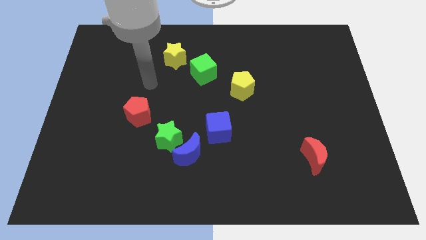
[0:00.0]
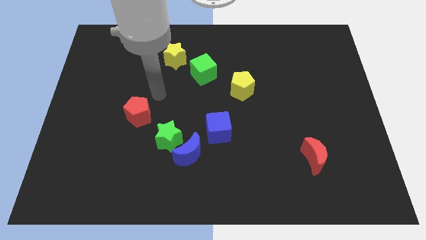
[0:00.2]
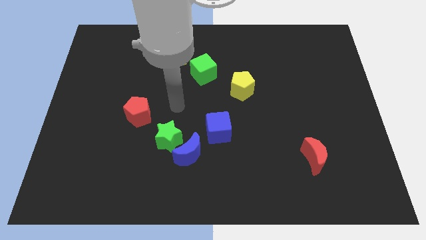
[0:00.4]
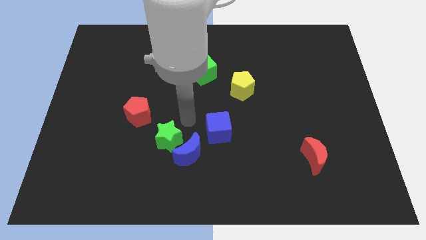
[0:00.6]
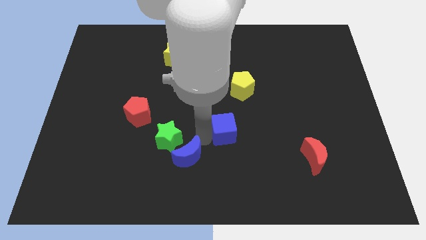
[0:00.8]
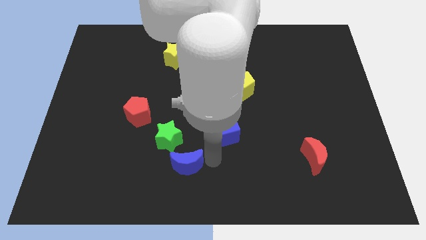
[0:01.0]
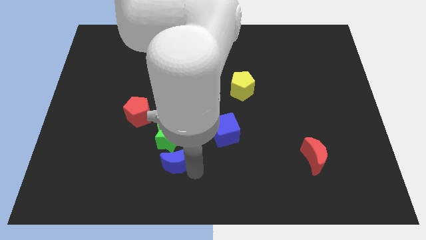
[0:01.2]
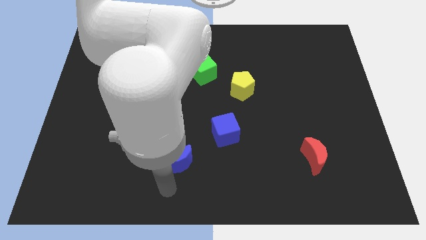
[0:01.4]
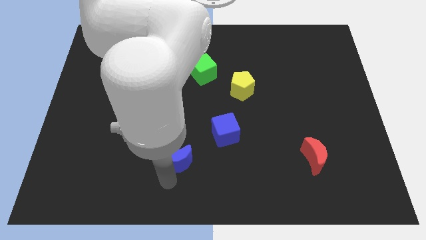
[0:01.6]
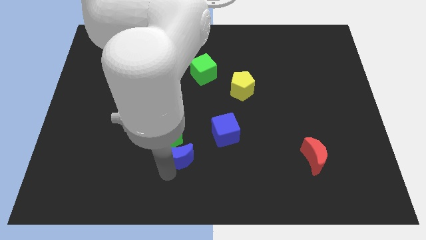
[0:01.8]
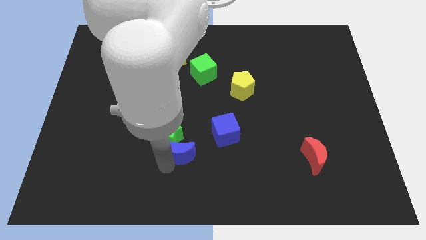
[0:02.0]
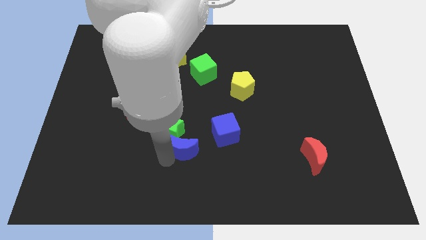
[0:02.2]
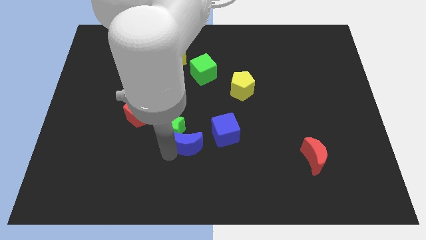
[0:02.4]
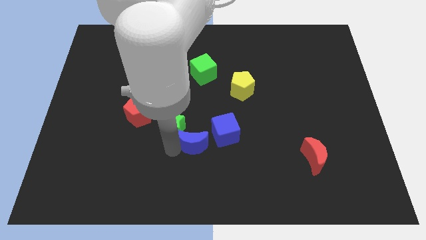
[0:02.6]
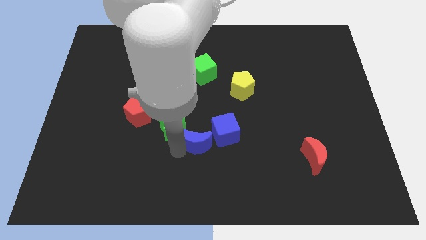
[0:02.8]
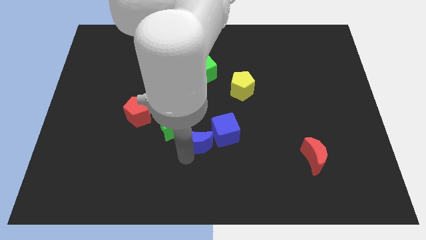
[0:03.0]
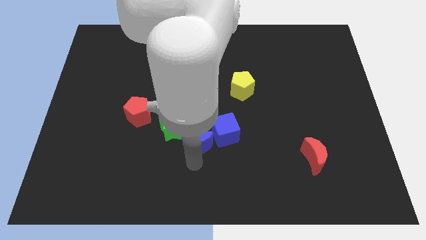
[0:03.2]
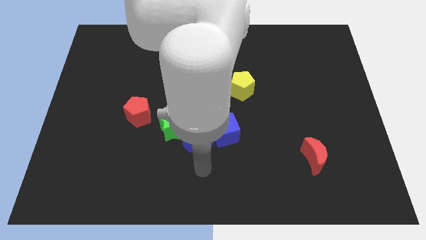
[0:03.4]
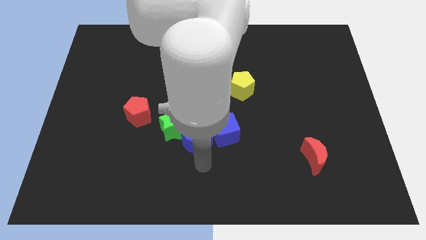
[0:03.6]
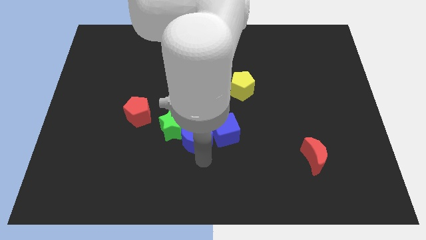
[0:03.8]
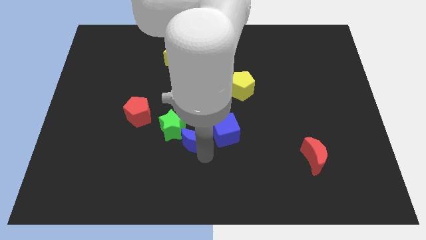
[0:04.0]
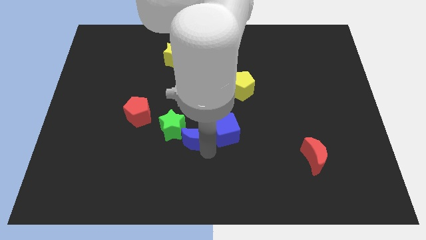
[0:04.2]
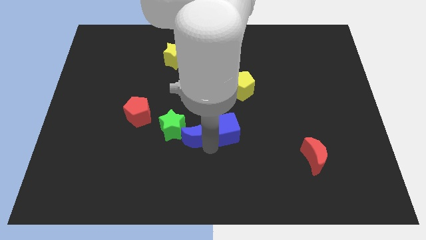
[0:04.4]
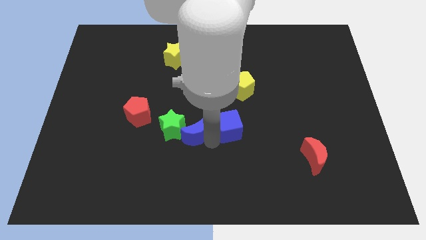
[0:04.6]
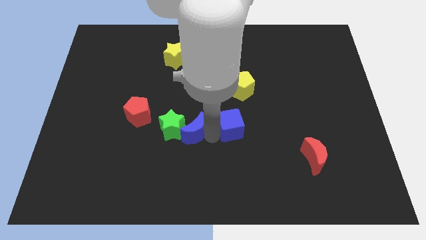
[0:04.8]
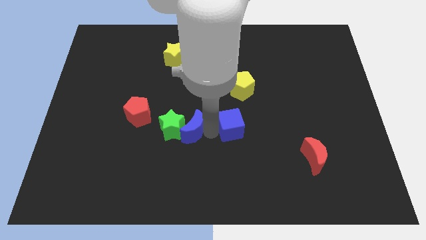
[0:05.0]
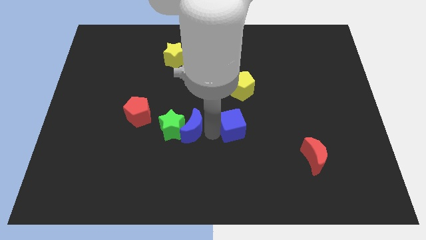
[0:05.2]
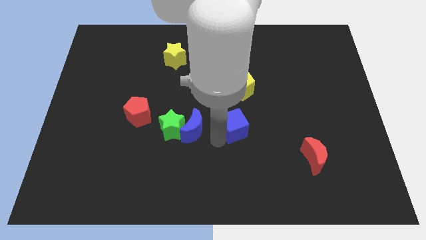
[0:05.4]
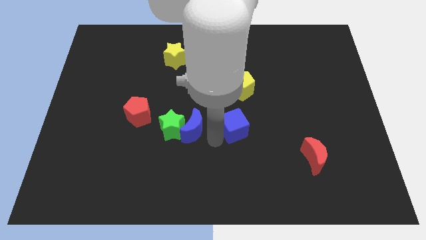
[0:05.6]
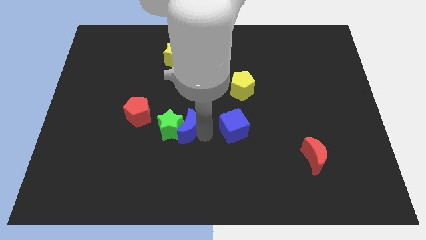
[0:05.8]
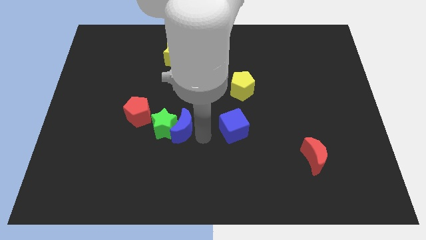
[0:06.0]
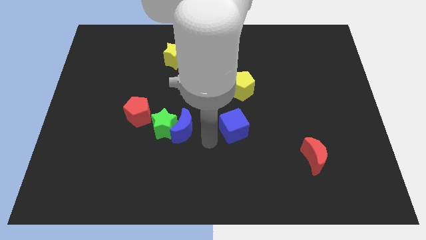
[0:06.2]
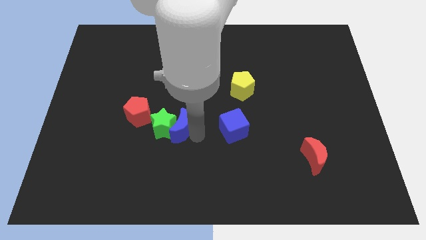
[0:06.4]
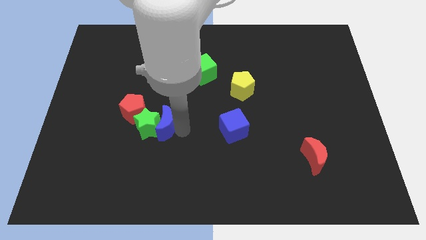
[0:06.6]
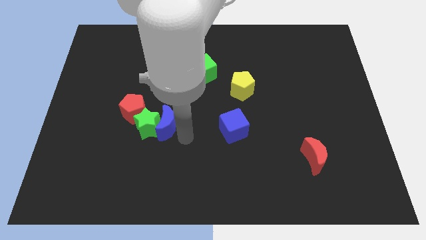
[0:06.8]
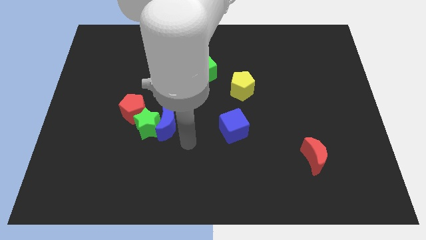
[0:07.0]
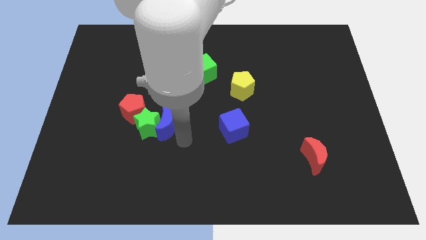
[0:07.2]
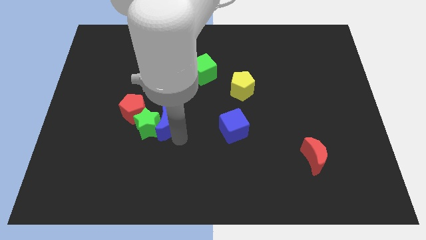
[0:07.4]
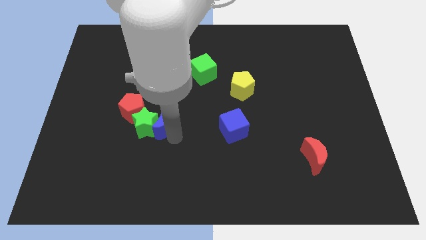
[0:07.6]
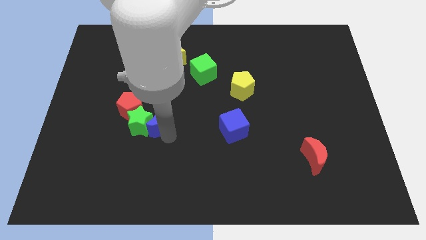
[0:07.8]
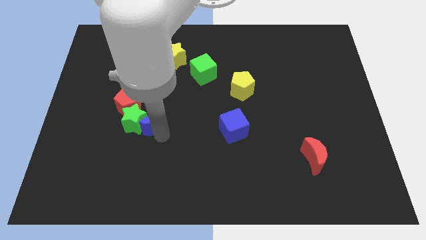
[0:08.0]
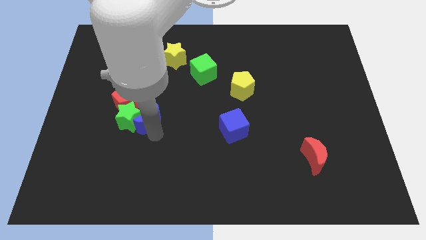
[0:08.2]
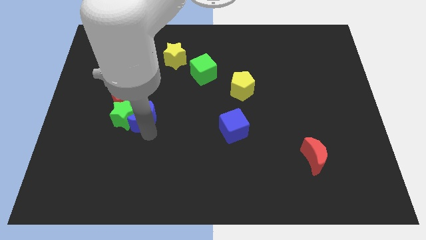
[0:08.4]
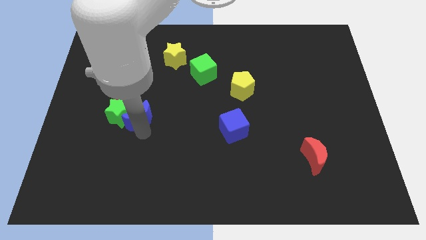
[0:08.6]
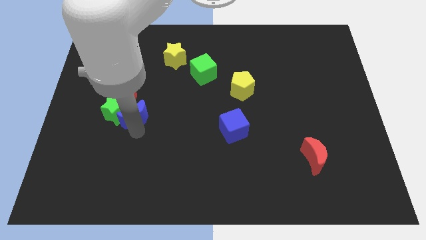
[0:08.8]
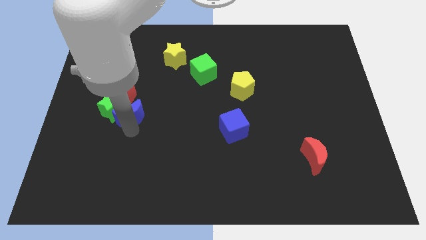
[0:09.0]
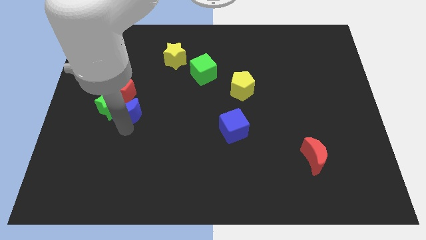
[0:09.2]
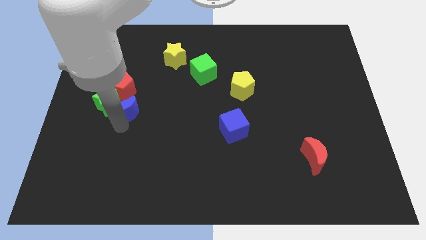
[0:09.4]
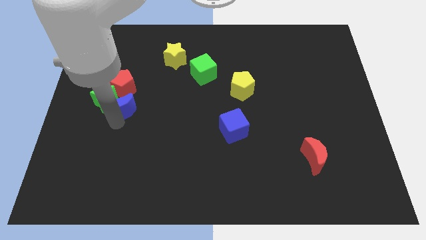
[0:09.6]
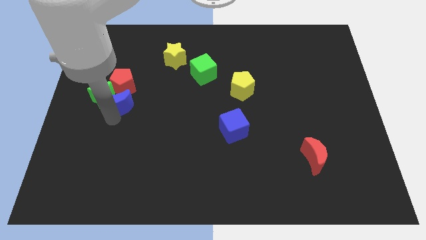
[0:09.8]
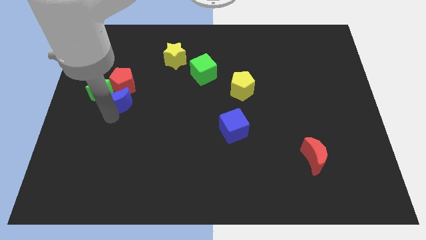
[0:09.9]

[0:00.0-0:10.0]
slide the blue moon close to the red pentagon

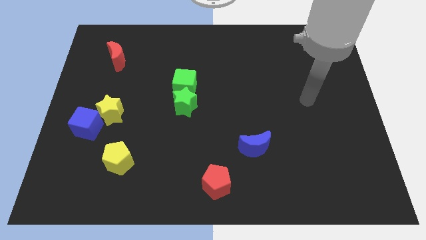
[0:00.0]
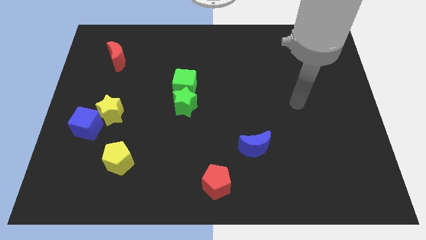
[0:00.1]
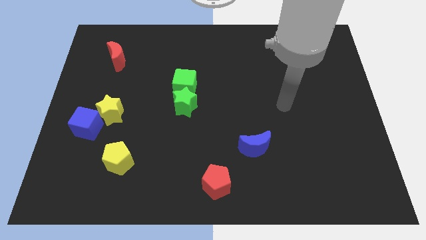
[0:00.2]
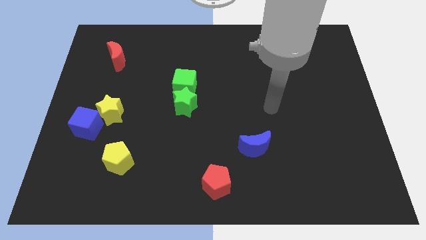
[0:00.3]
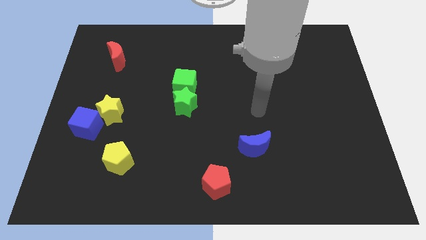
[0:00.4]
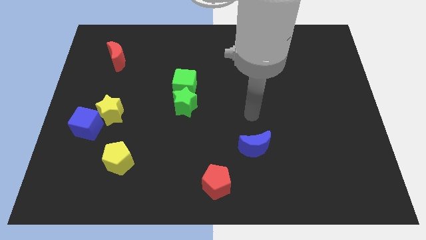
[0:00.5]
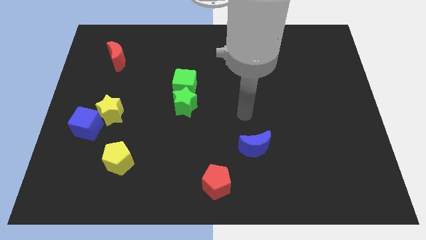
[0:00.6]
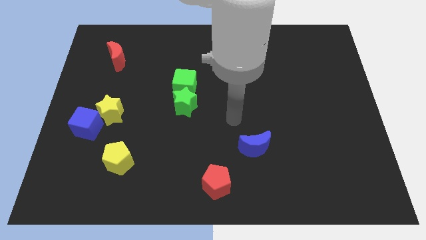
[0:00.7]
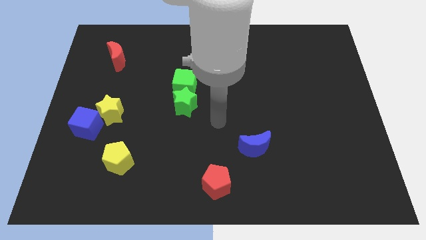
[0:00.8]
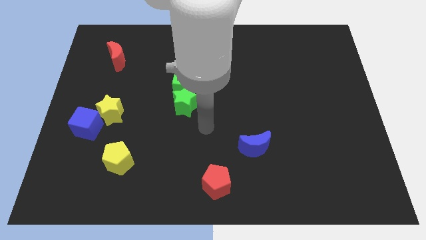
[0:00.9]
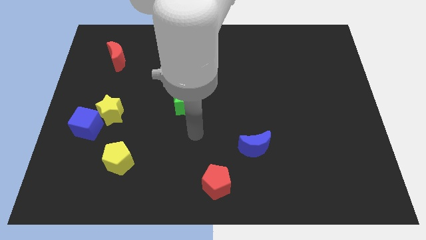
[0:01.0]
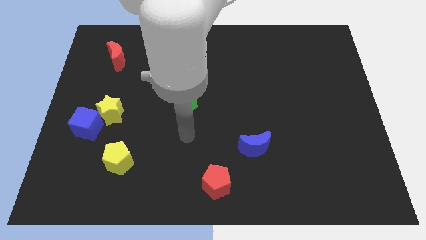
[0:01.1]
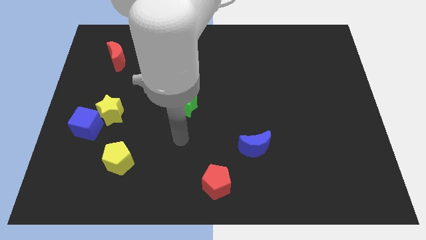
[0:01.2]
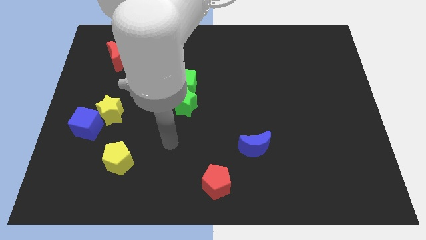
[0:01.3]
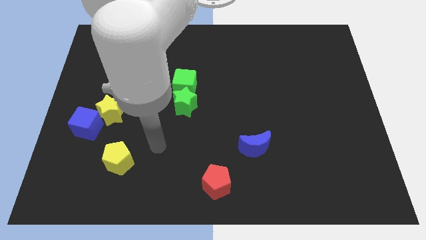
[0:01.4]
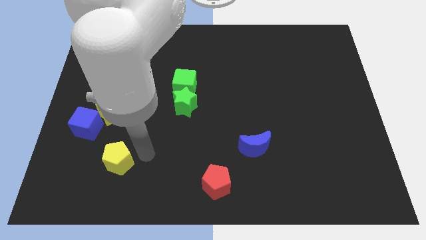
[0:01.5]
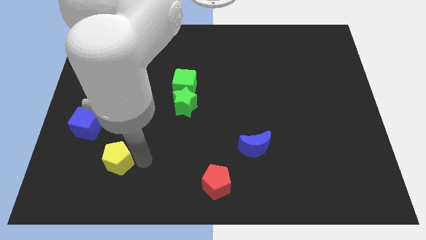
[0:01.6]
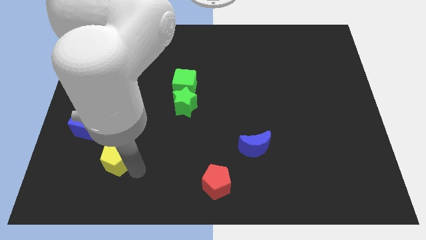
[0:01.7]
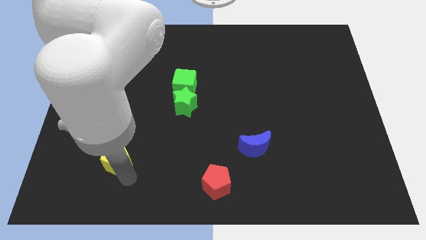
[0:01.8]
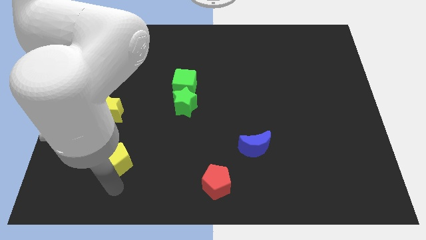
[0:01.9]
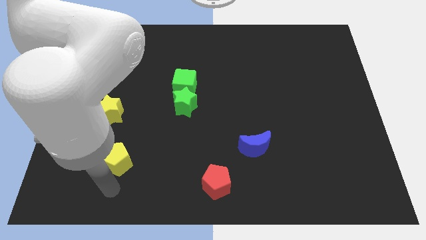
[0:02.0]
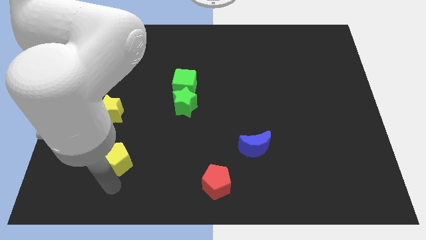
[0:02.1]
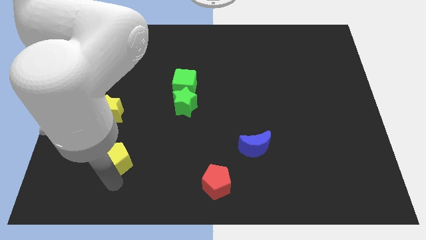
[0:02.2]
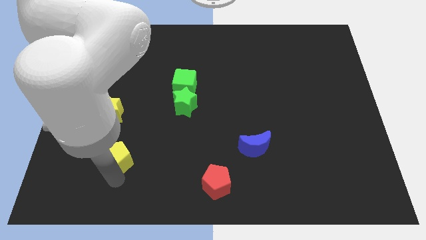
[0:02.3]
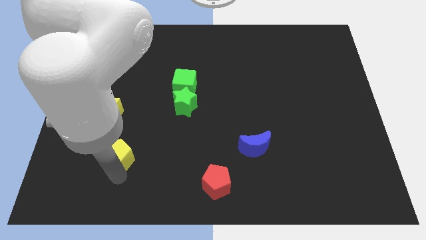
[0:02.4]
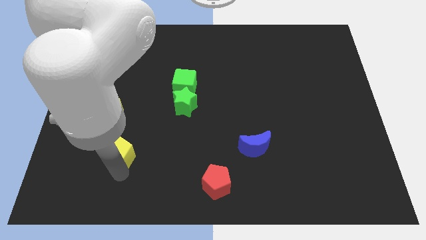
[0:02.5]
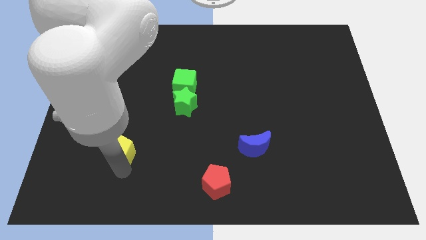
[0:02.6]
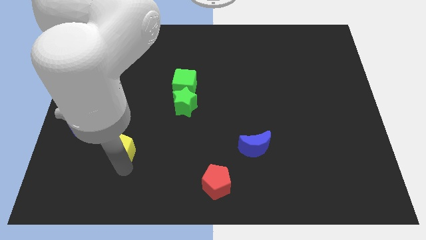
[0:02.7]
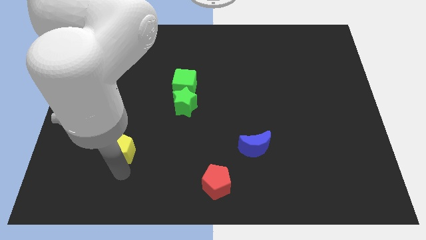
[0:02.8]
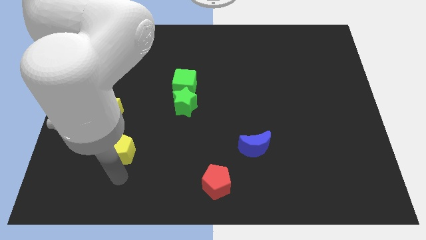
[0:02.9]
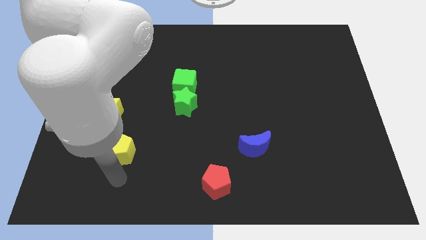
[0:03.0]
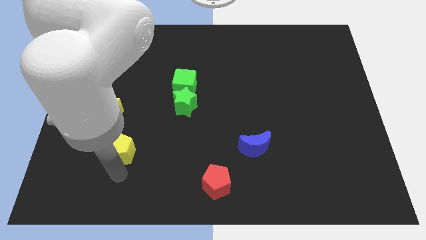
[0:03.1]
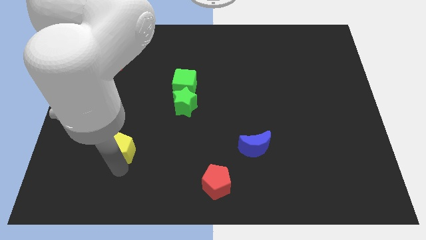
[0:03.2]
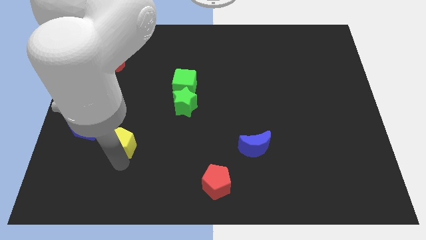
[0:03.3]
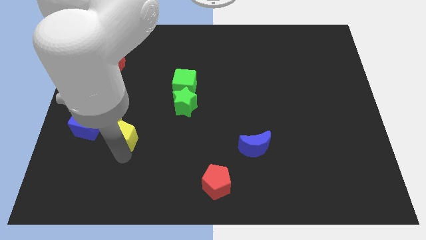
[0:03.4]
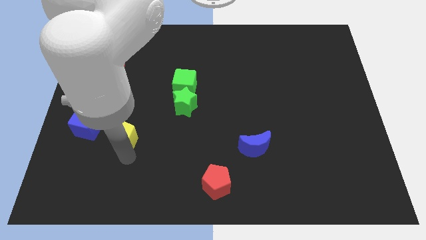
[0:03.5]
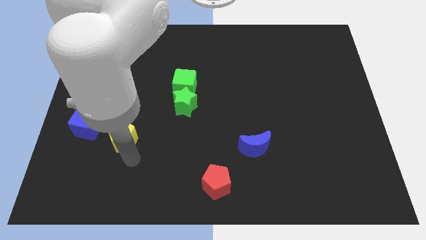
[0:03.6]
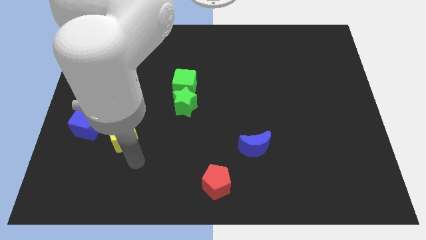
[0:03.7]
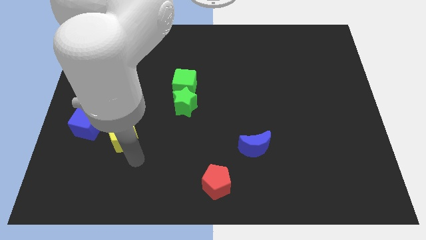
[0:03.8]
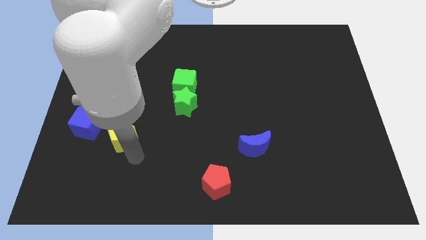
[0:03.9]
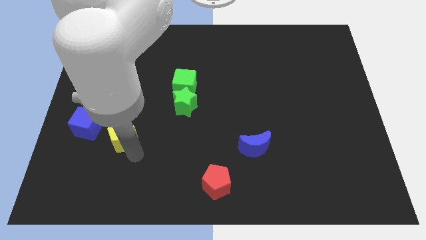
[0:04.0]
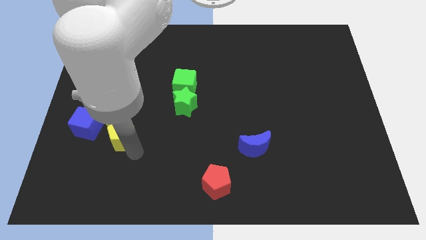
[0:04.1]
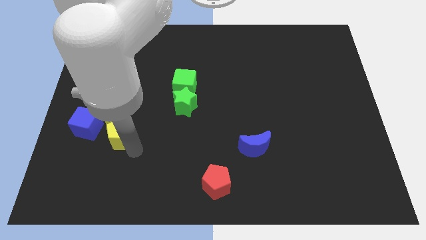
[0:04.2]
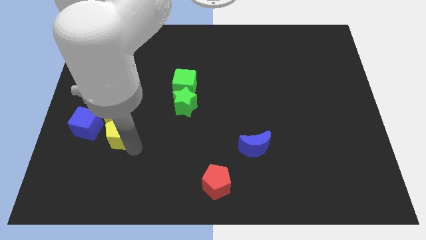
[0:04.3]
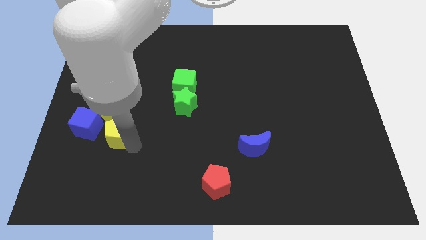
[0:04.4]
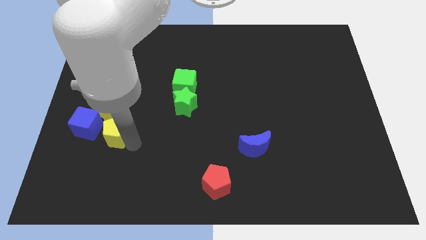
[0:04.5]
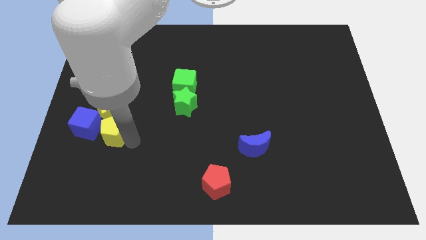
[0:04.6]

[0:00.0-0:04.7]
put the yellow pentagon close to the yellow star
